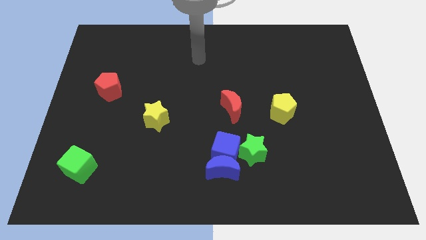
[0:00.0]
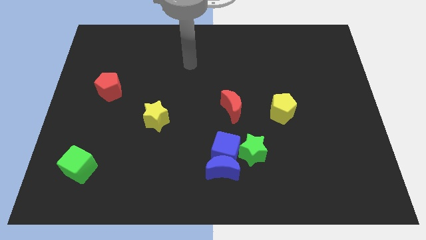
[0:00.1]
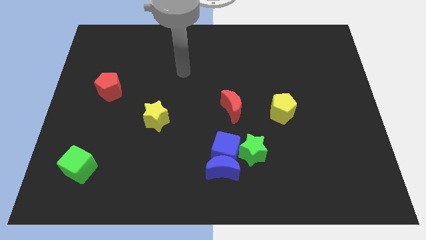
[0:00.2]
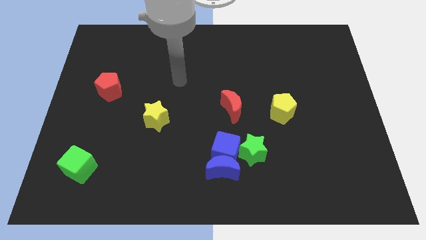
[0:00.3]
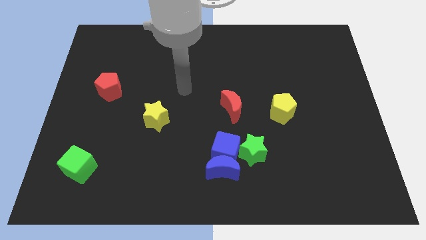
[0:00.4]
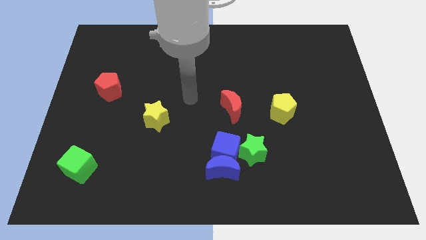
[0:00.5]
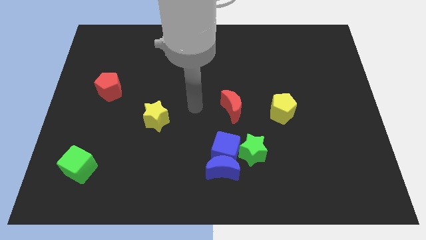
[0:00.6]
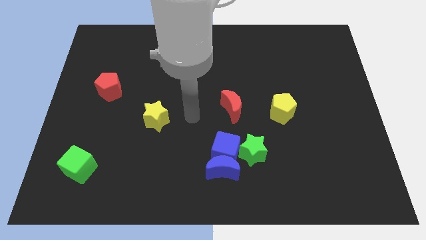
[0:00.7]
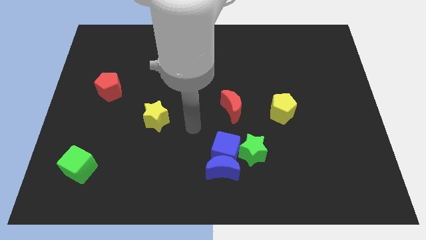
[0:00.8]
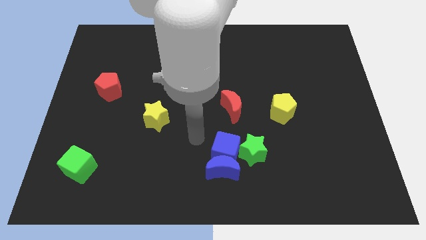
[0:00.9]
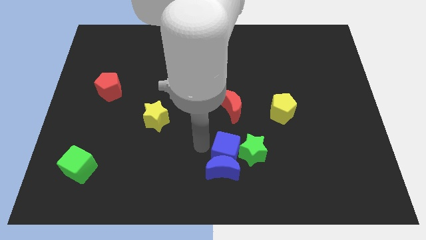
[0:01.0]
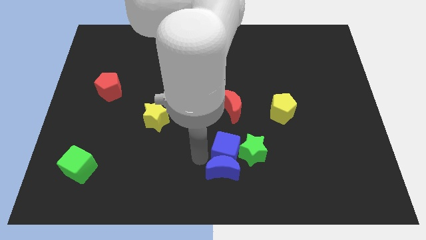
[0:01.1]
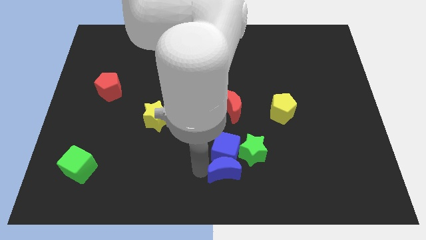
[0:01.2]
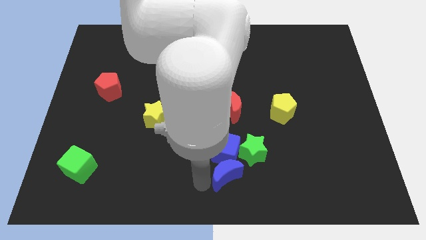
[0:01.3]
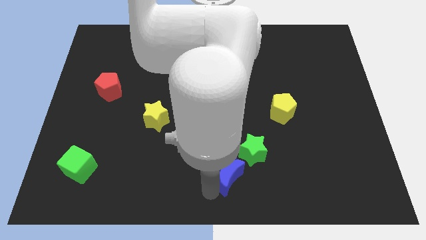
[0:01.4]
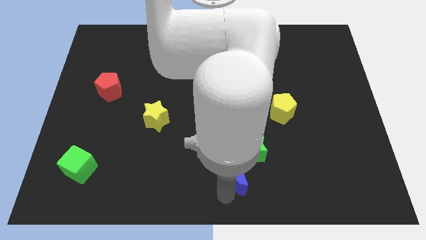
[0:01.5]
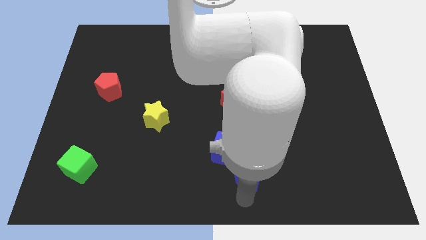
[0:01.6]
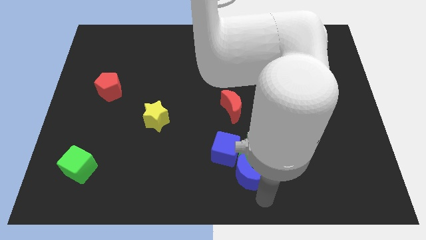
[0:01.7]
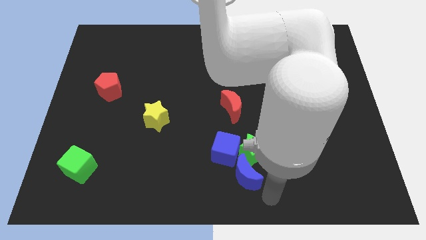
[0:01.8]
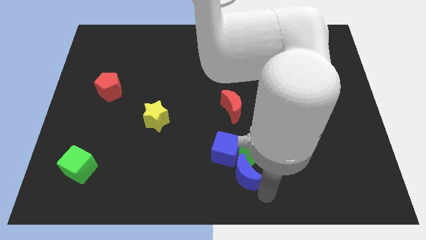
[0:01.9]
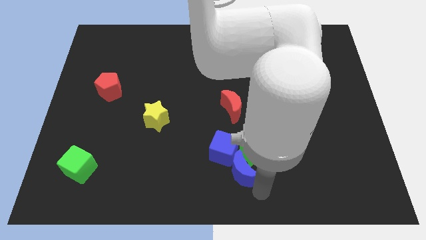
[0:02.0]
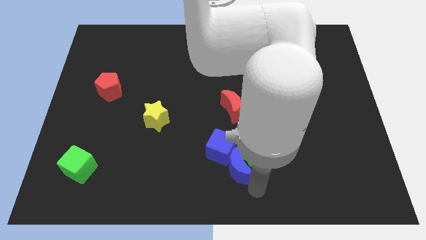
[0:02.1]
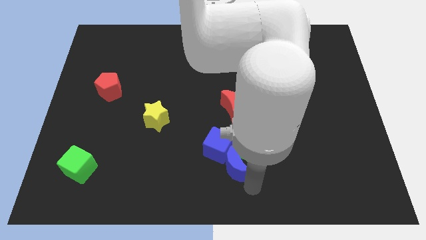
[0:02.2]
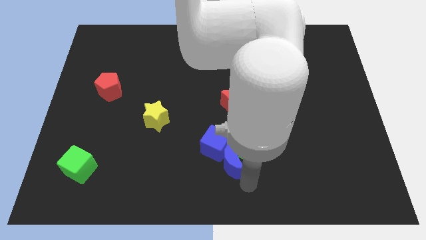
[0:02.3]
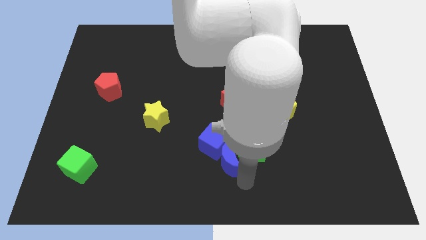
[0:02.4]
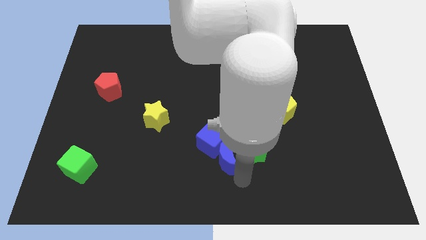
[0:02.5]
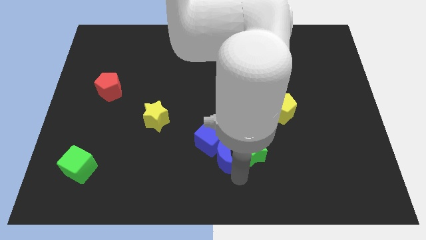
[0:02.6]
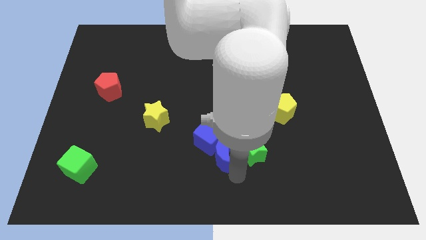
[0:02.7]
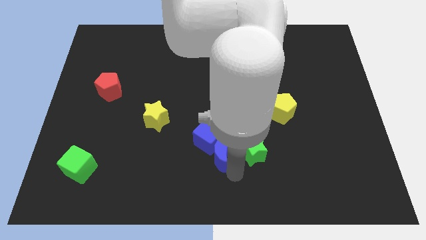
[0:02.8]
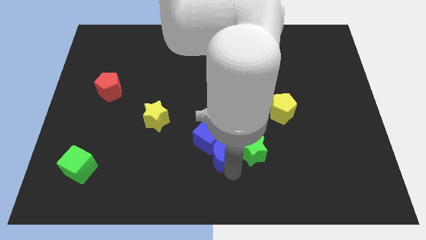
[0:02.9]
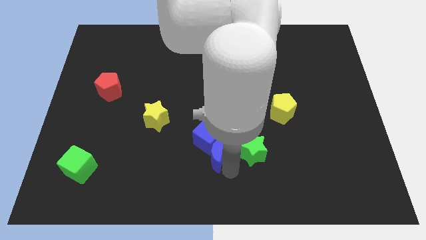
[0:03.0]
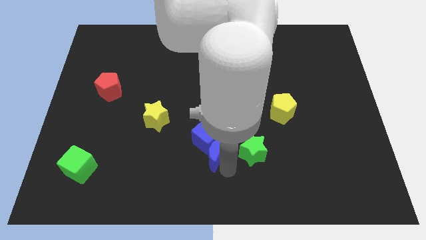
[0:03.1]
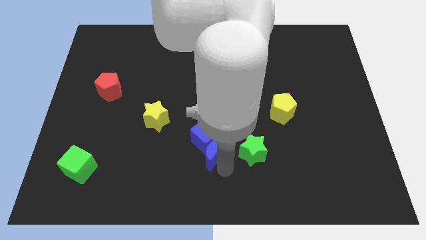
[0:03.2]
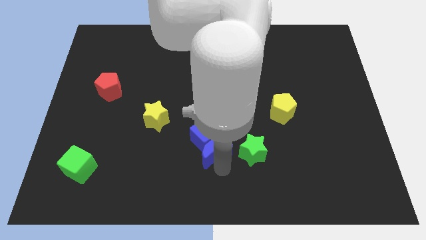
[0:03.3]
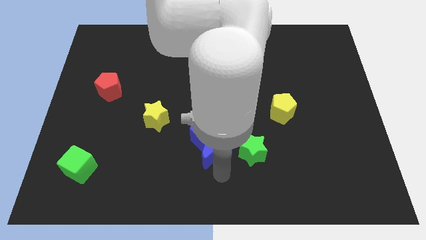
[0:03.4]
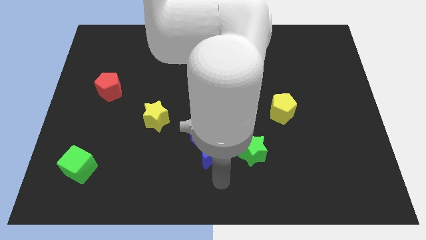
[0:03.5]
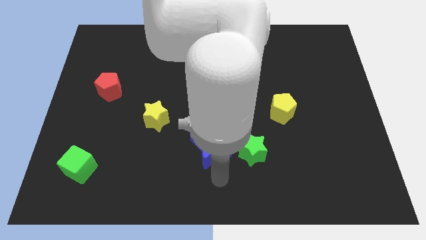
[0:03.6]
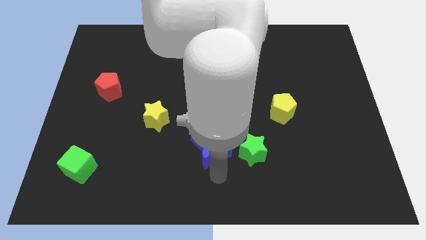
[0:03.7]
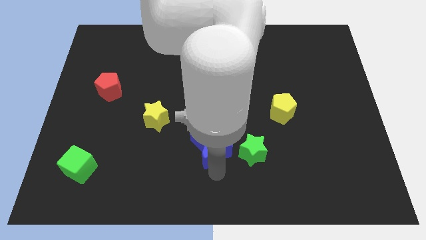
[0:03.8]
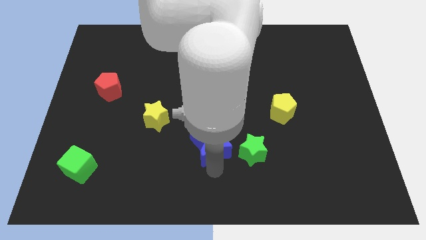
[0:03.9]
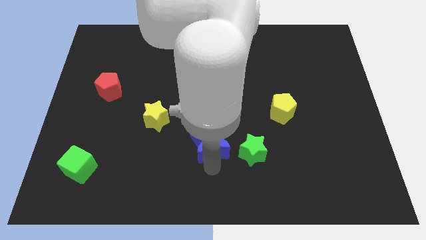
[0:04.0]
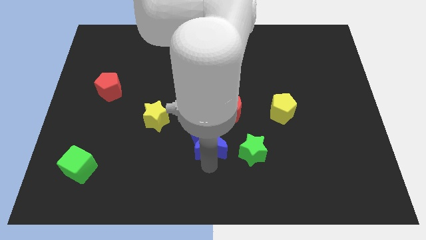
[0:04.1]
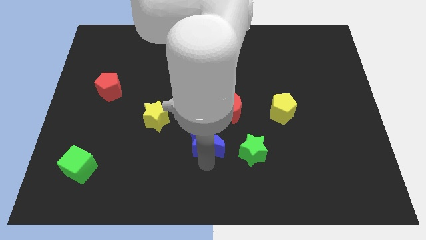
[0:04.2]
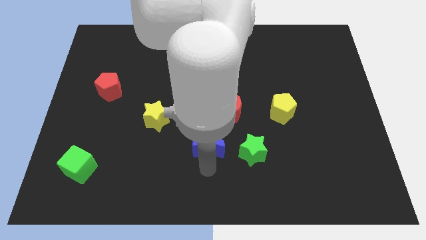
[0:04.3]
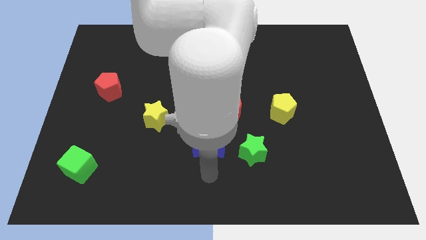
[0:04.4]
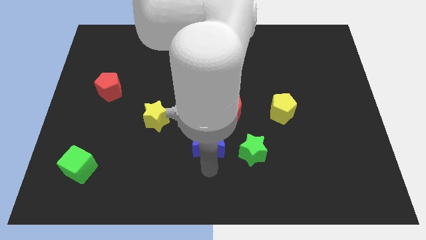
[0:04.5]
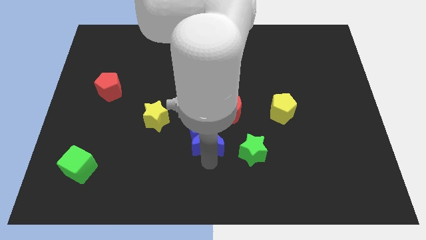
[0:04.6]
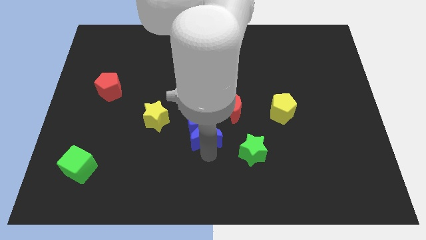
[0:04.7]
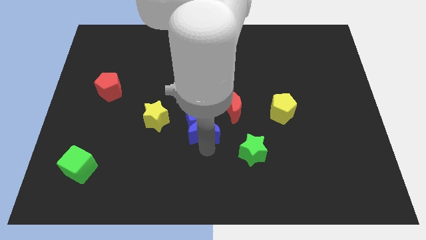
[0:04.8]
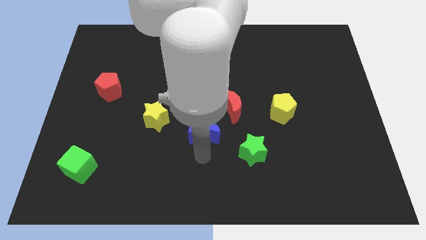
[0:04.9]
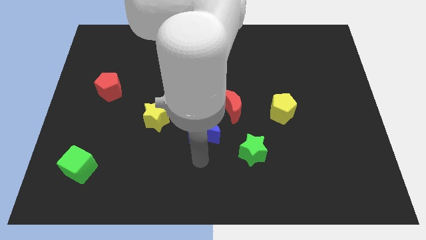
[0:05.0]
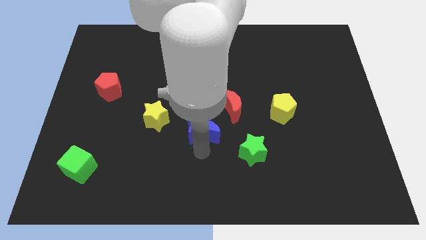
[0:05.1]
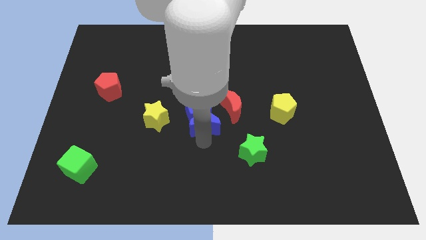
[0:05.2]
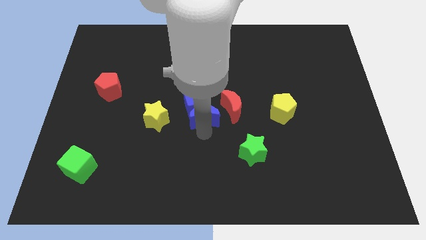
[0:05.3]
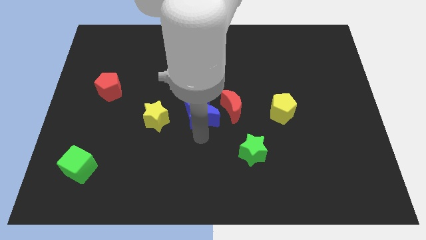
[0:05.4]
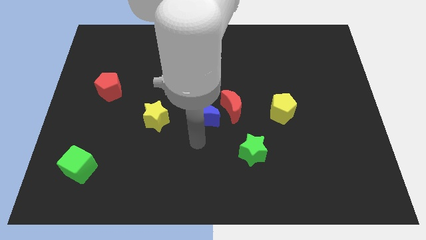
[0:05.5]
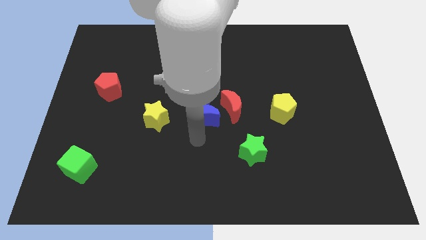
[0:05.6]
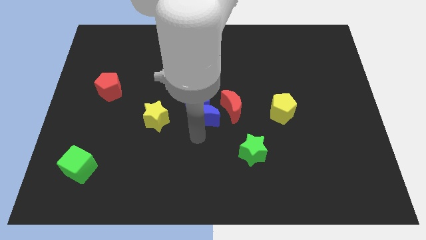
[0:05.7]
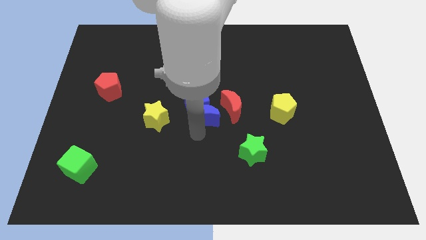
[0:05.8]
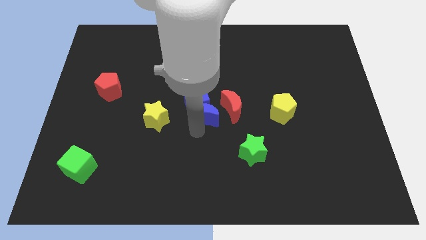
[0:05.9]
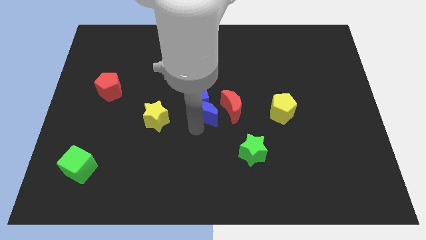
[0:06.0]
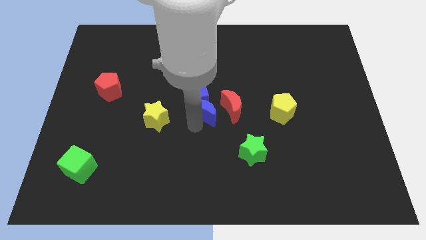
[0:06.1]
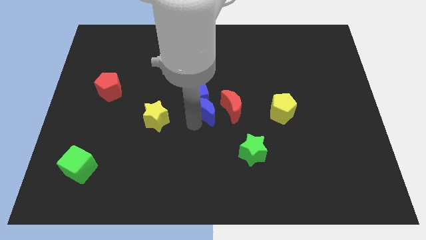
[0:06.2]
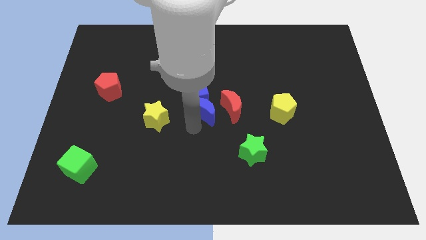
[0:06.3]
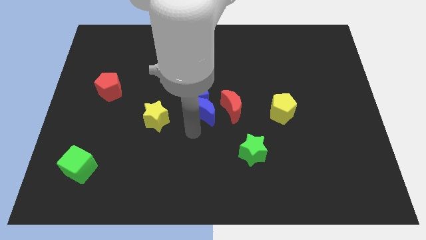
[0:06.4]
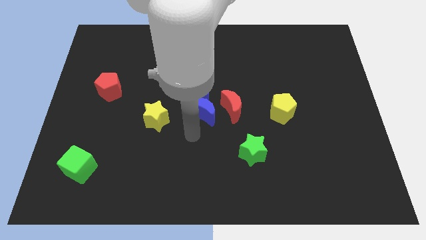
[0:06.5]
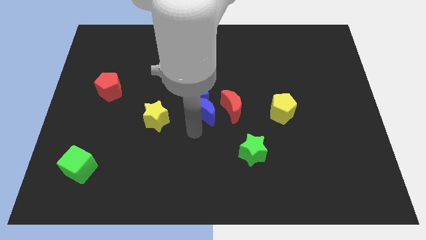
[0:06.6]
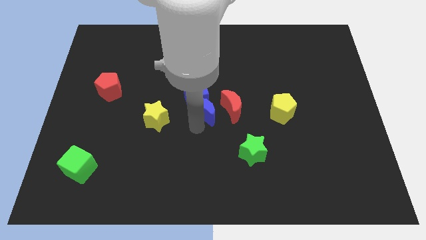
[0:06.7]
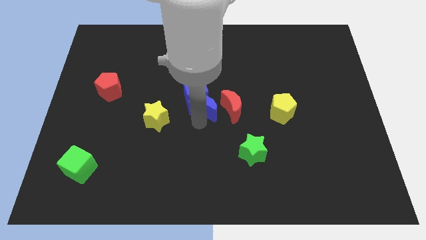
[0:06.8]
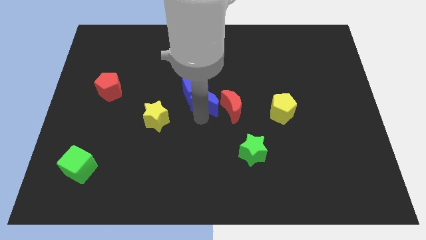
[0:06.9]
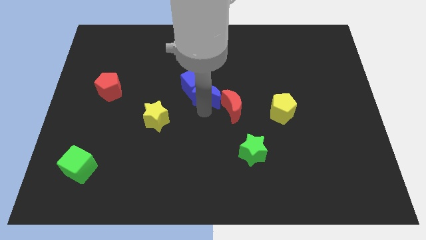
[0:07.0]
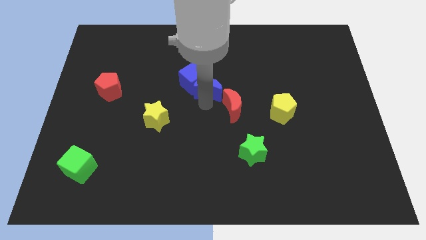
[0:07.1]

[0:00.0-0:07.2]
push the blue moon up

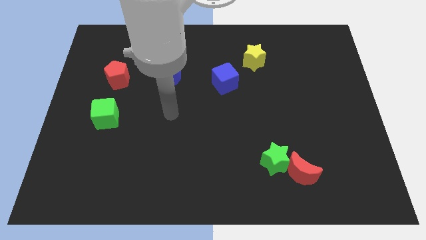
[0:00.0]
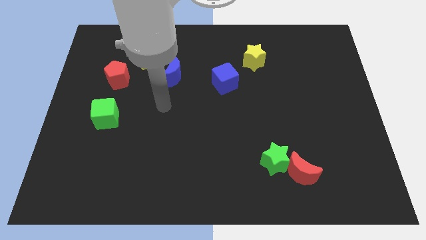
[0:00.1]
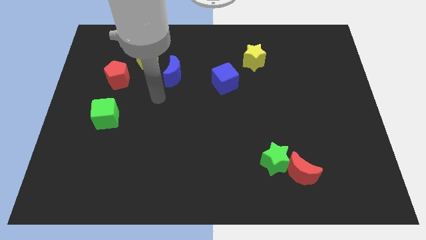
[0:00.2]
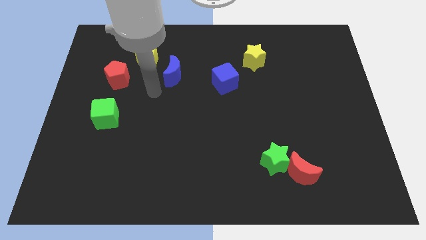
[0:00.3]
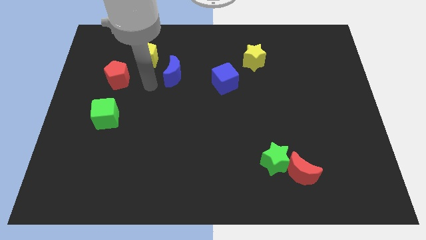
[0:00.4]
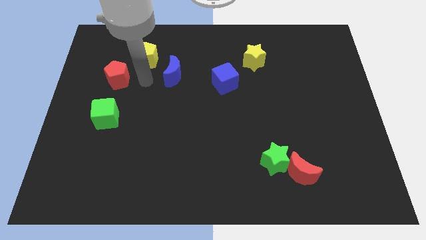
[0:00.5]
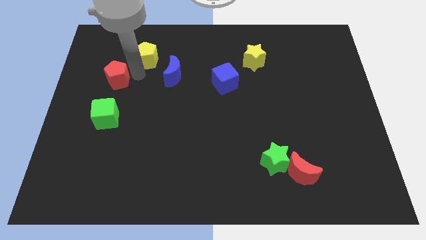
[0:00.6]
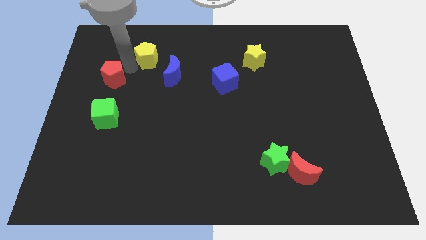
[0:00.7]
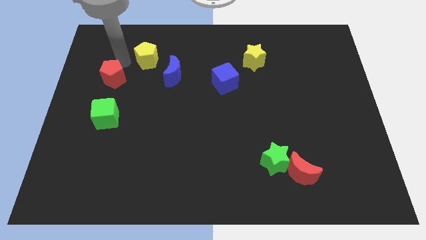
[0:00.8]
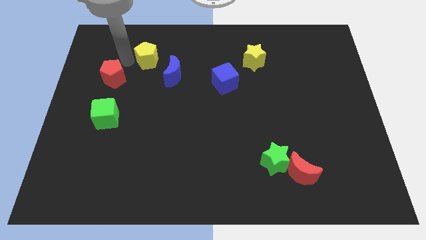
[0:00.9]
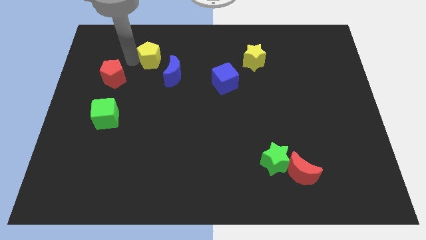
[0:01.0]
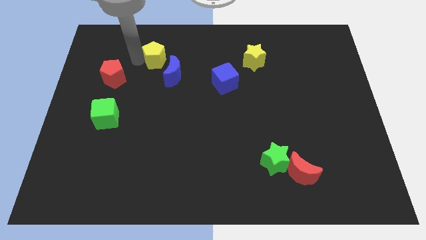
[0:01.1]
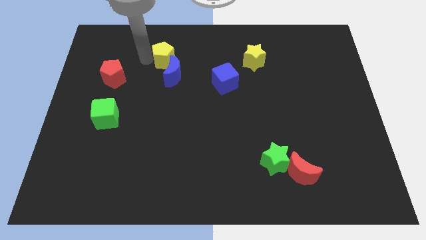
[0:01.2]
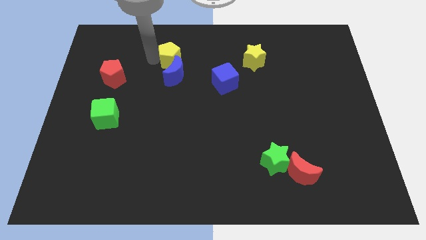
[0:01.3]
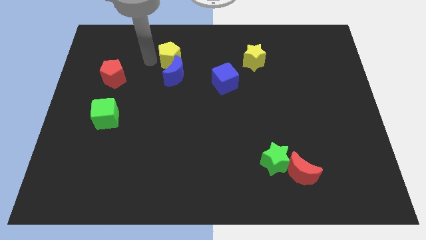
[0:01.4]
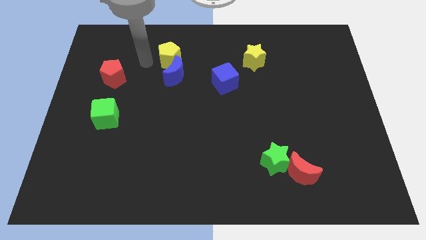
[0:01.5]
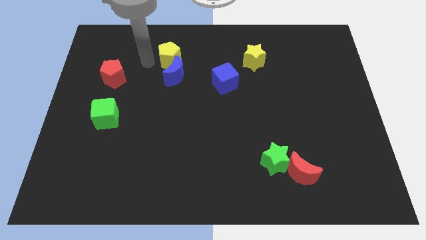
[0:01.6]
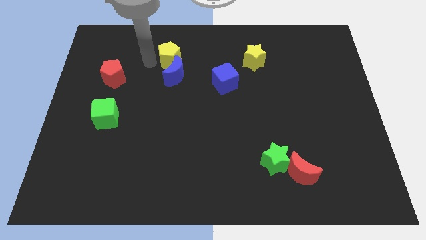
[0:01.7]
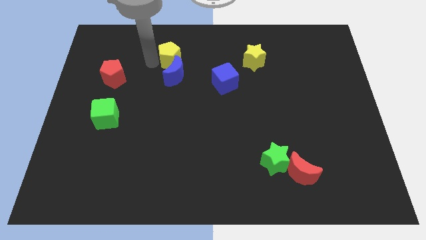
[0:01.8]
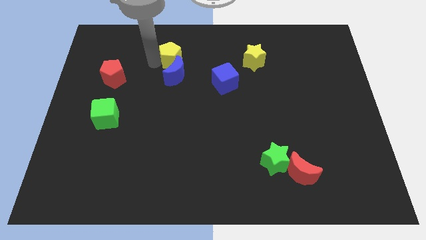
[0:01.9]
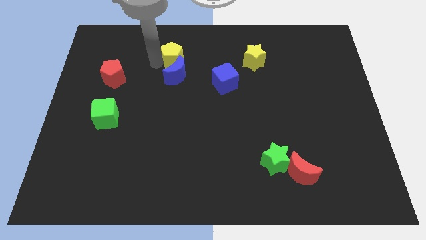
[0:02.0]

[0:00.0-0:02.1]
slightly slide the yellow pentagon to the right
